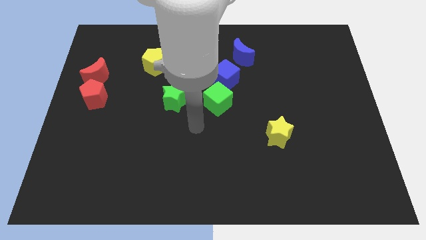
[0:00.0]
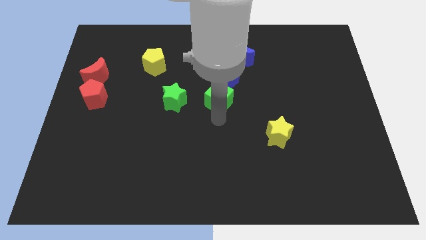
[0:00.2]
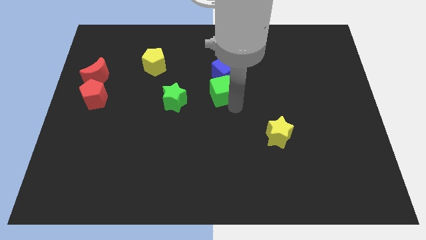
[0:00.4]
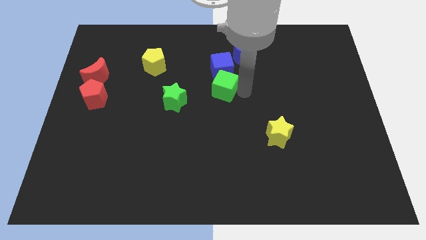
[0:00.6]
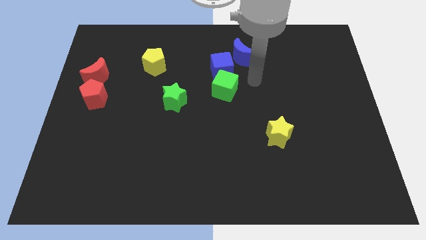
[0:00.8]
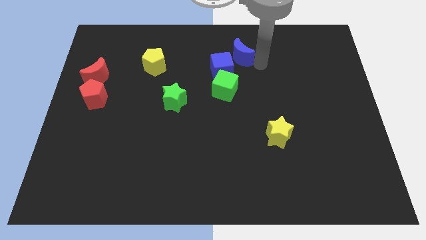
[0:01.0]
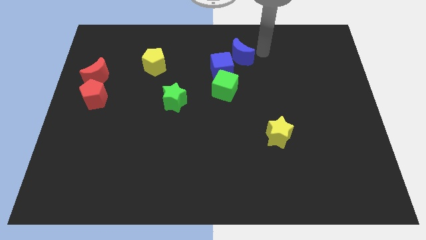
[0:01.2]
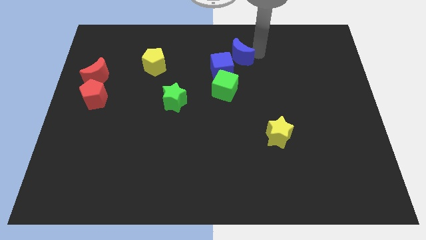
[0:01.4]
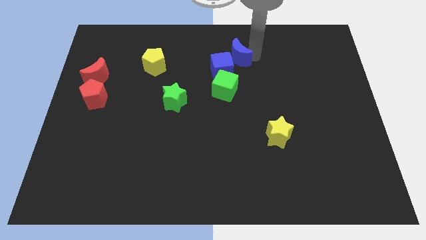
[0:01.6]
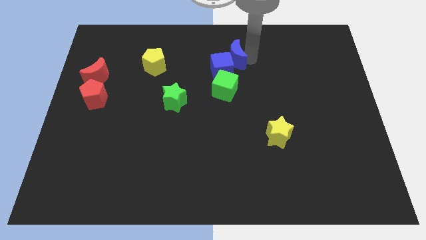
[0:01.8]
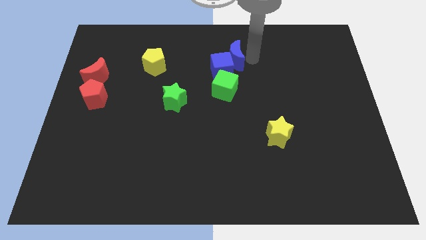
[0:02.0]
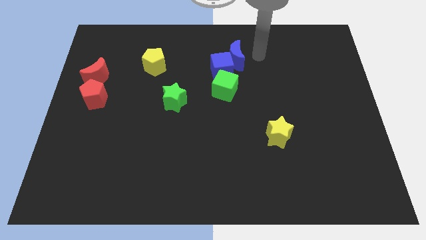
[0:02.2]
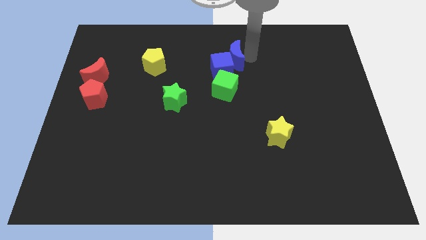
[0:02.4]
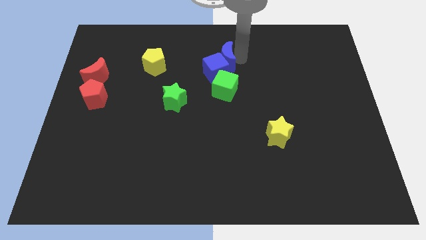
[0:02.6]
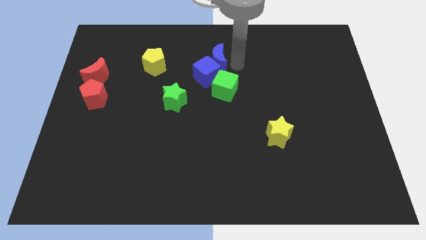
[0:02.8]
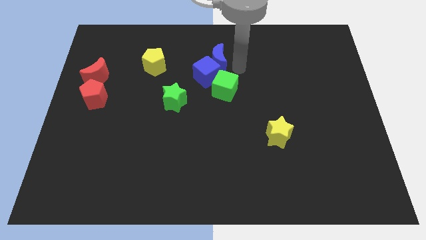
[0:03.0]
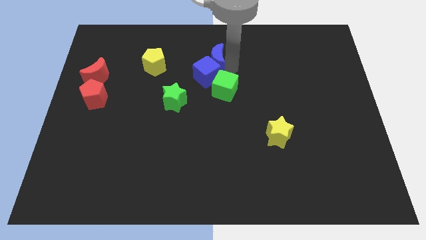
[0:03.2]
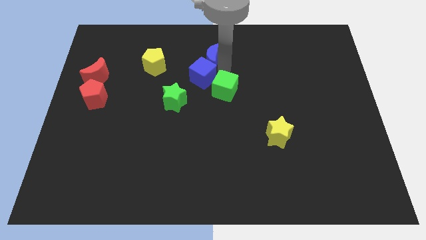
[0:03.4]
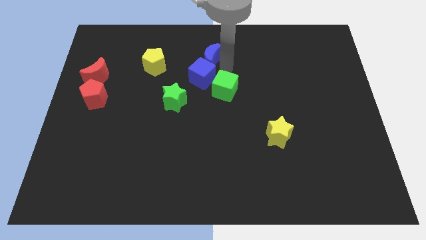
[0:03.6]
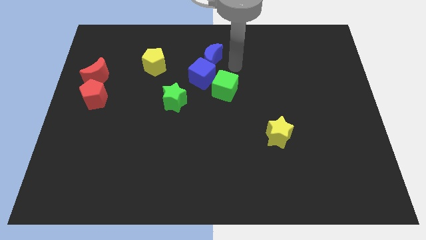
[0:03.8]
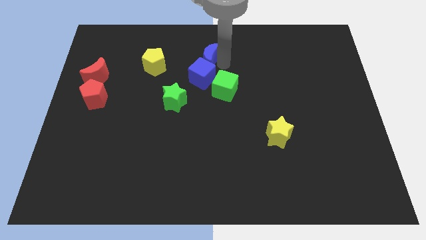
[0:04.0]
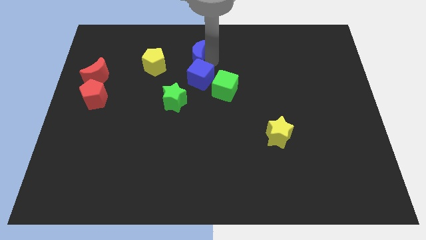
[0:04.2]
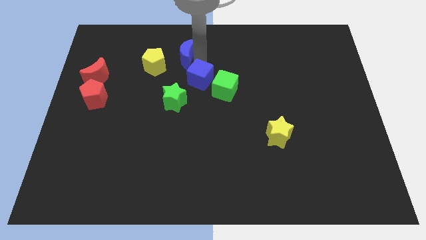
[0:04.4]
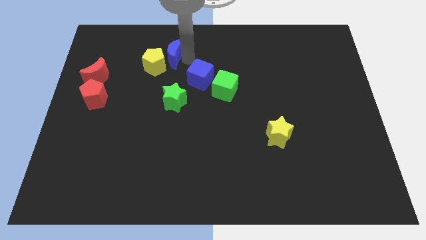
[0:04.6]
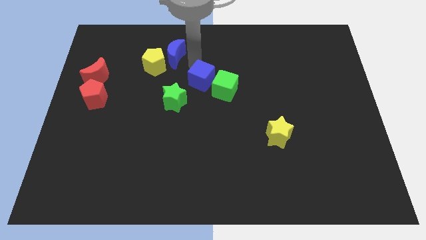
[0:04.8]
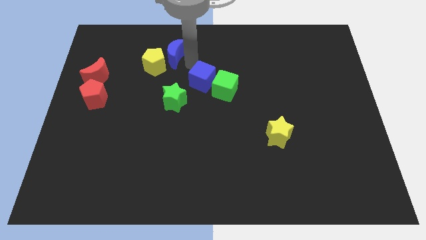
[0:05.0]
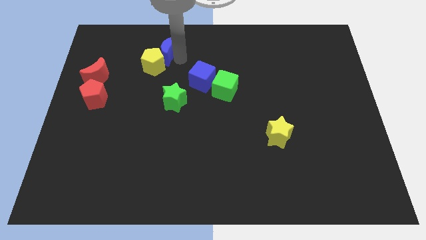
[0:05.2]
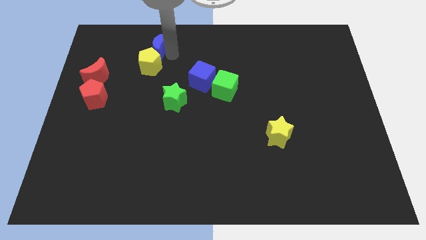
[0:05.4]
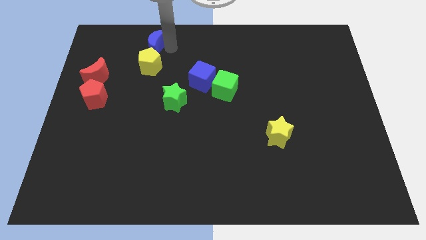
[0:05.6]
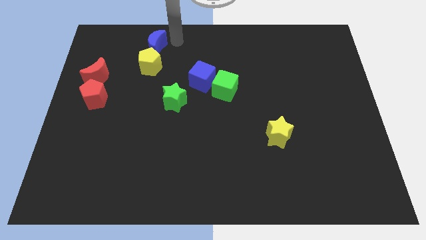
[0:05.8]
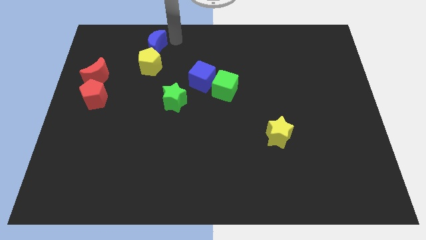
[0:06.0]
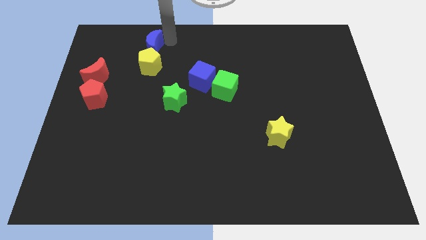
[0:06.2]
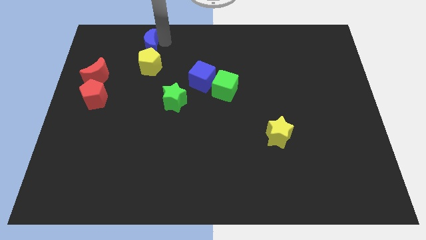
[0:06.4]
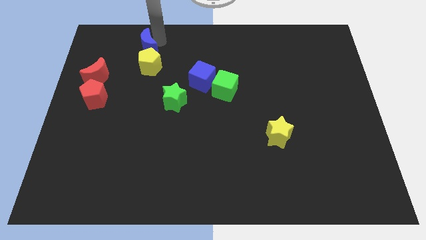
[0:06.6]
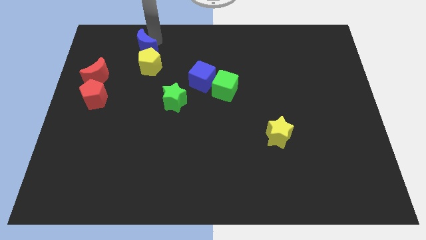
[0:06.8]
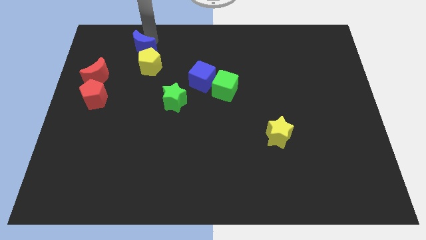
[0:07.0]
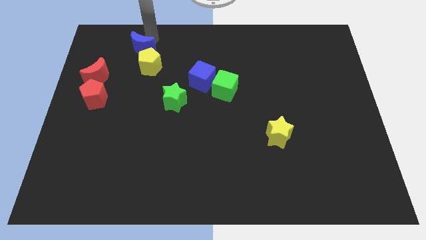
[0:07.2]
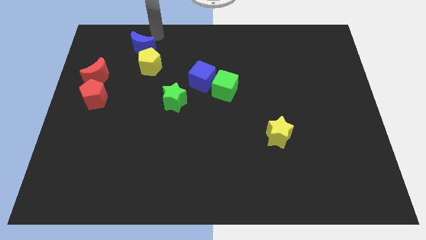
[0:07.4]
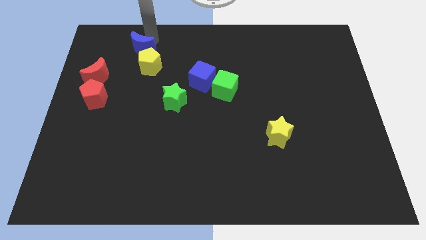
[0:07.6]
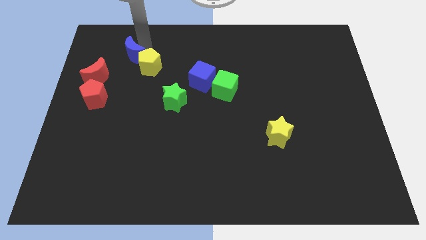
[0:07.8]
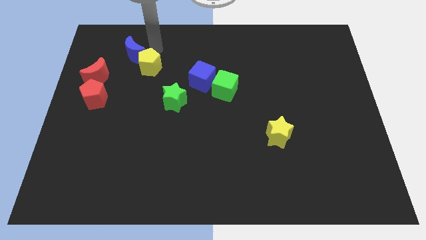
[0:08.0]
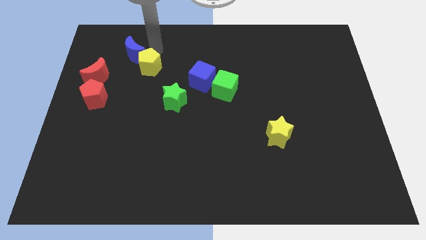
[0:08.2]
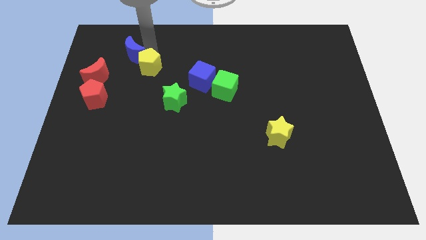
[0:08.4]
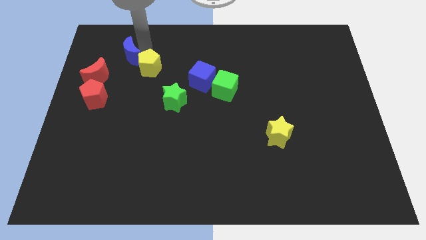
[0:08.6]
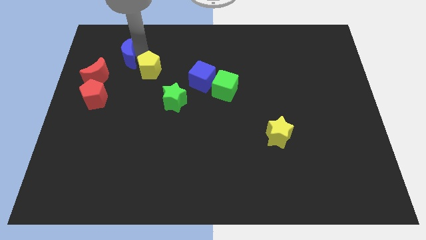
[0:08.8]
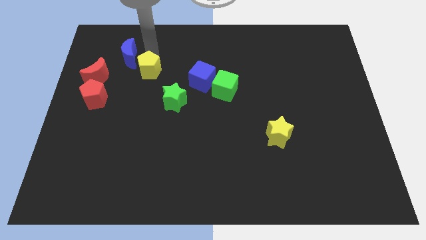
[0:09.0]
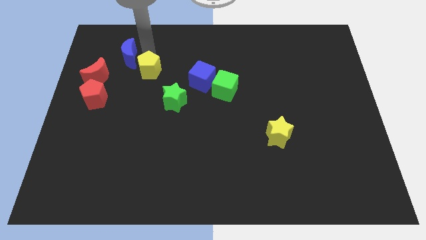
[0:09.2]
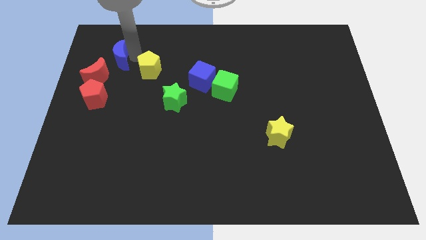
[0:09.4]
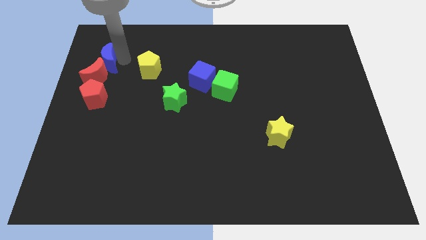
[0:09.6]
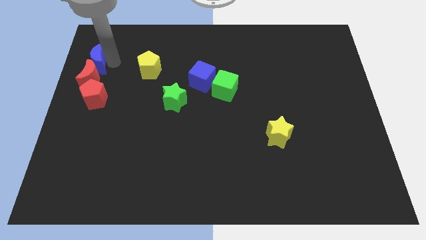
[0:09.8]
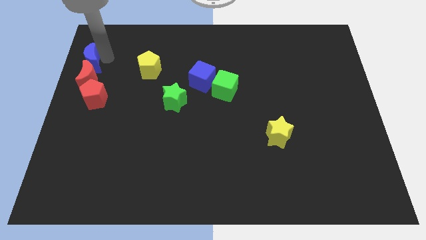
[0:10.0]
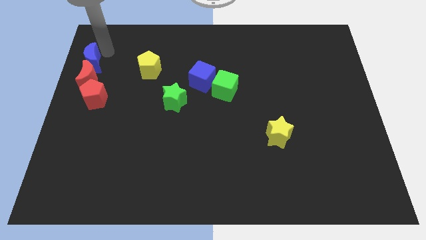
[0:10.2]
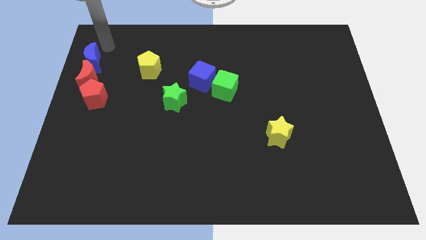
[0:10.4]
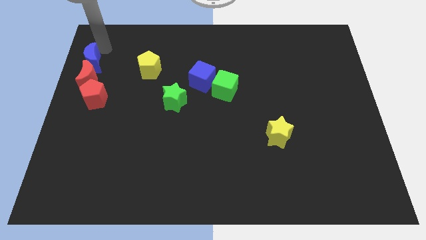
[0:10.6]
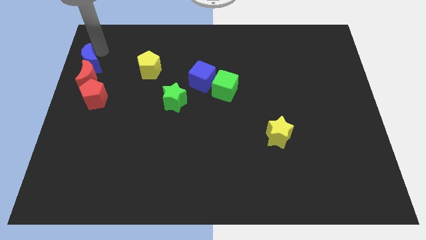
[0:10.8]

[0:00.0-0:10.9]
put the blue moon to the left side
